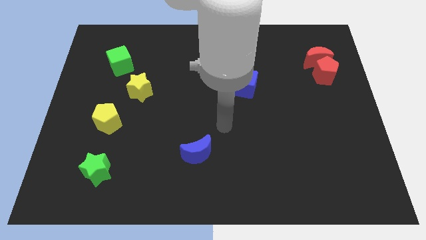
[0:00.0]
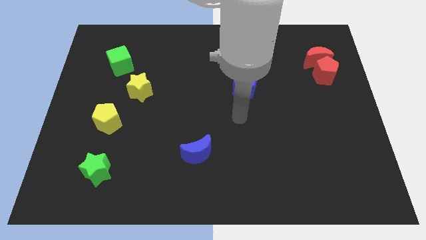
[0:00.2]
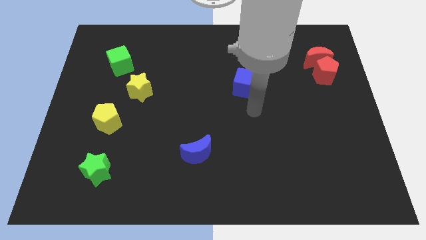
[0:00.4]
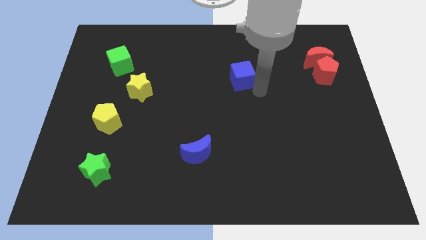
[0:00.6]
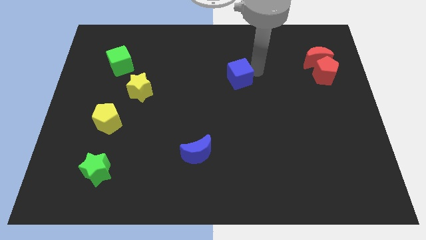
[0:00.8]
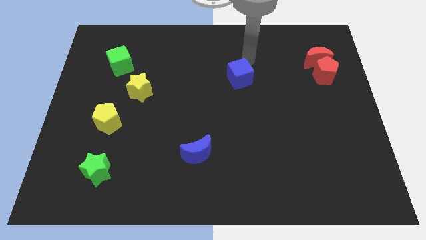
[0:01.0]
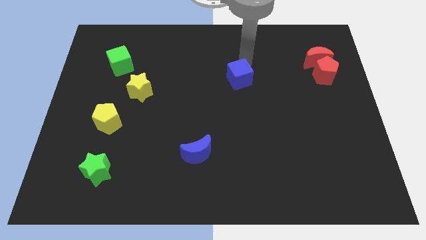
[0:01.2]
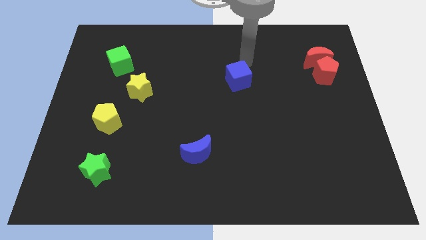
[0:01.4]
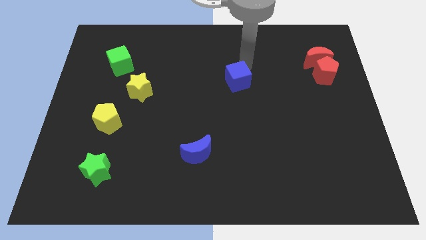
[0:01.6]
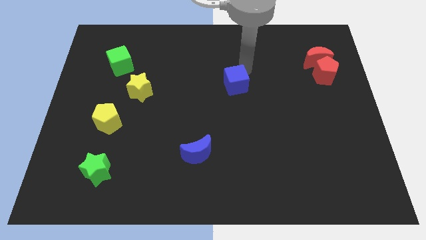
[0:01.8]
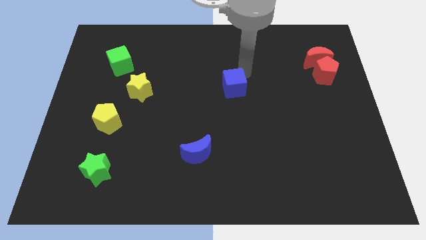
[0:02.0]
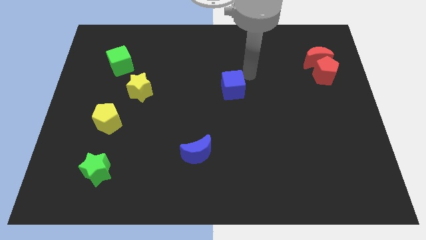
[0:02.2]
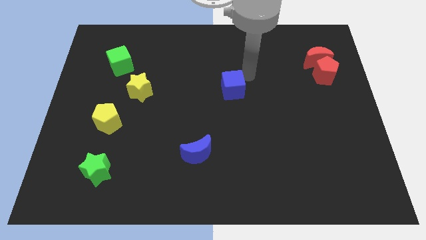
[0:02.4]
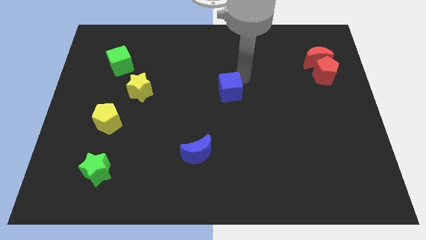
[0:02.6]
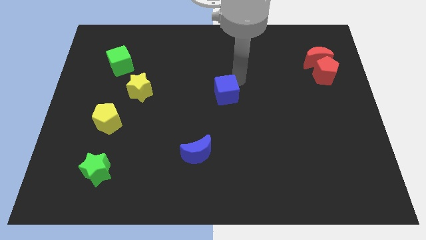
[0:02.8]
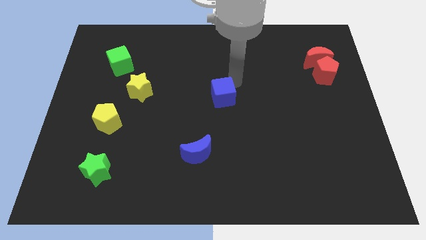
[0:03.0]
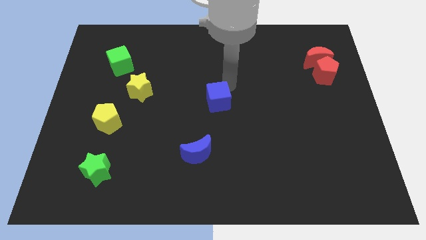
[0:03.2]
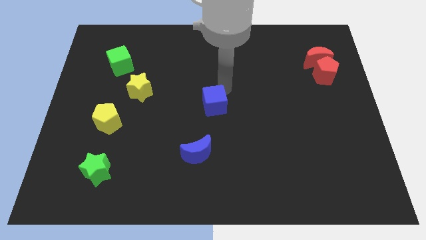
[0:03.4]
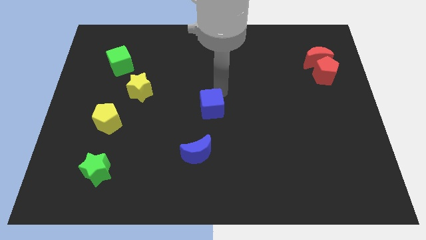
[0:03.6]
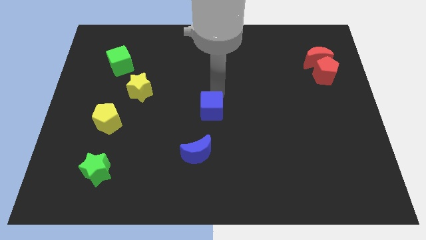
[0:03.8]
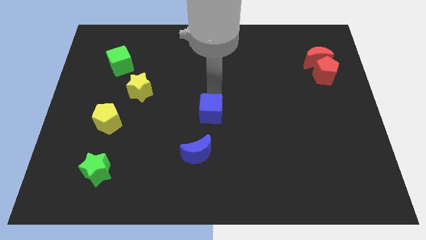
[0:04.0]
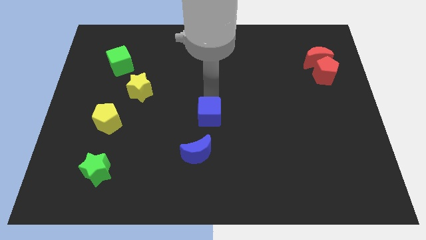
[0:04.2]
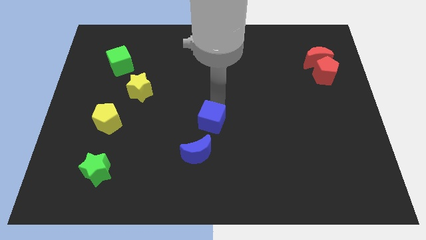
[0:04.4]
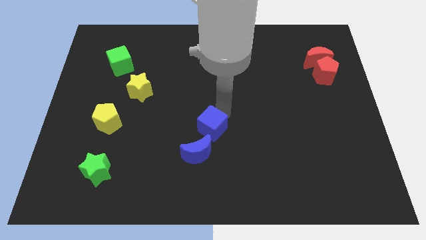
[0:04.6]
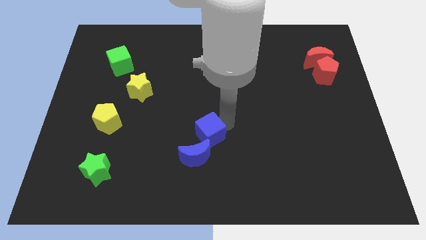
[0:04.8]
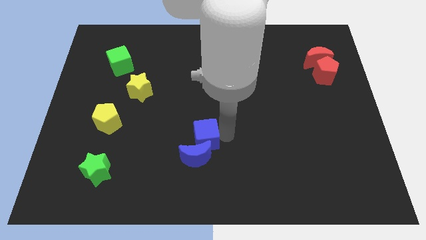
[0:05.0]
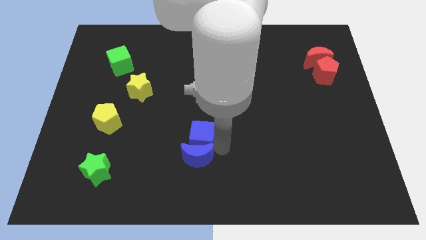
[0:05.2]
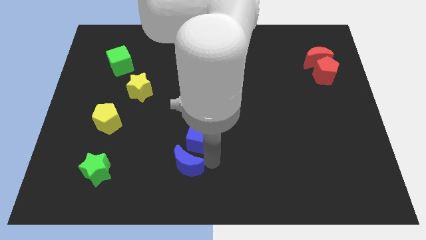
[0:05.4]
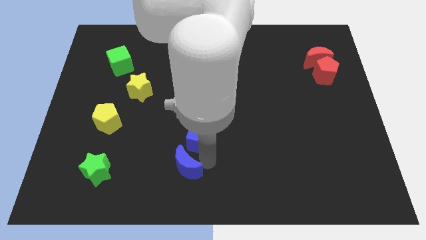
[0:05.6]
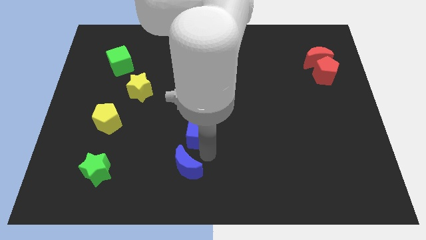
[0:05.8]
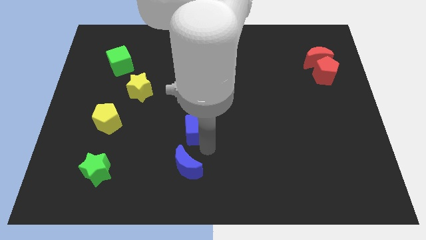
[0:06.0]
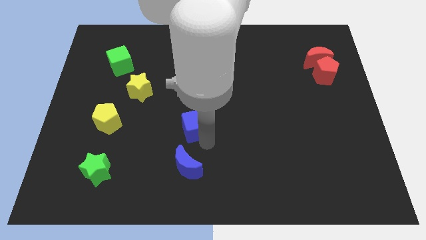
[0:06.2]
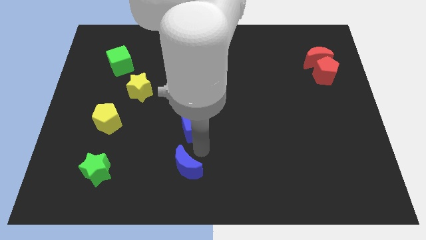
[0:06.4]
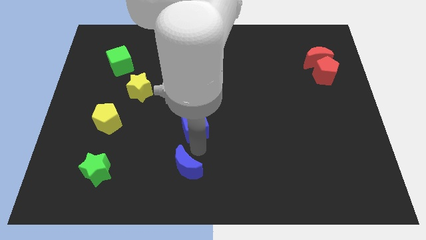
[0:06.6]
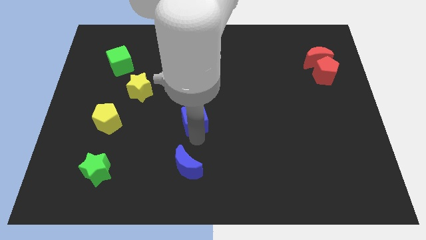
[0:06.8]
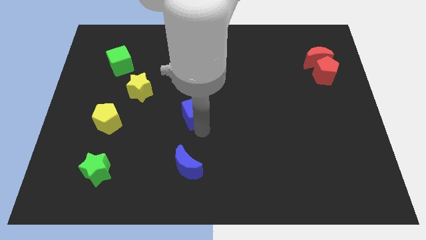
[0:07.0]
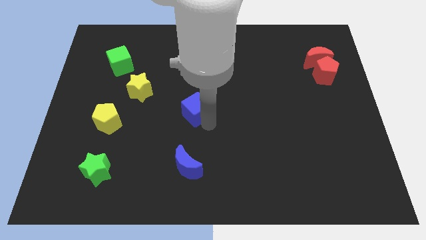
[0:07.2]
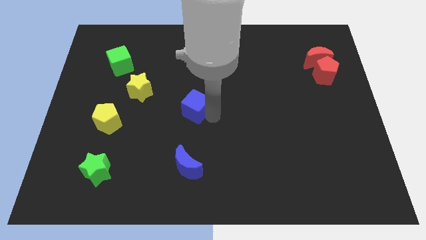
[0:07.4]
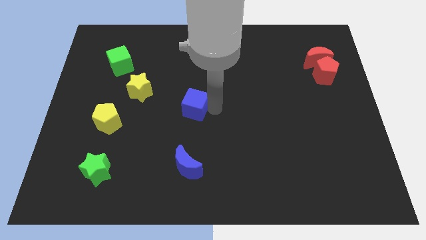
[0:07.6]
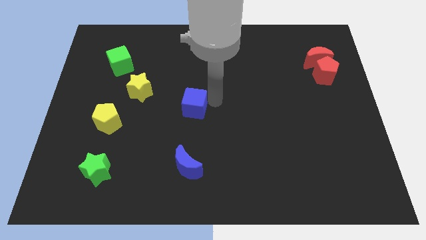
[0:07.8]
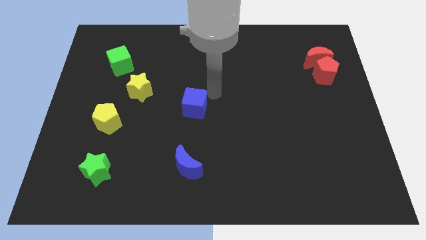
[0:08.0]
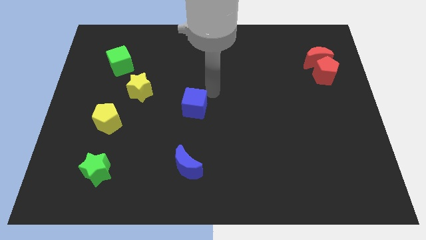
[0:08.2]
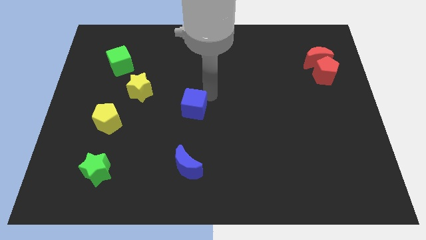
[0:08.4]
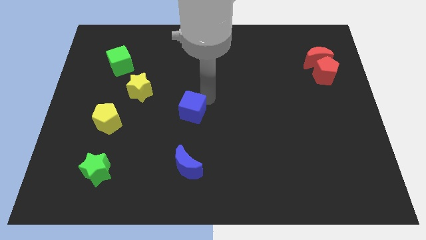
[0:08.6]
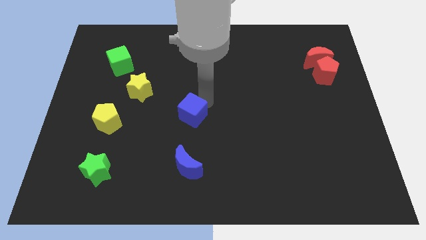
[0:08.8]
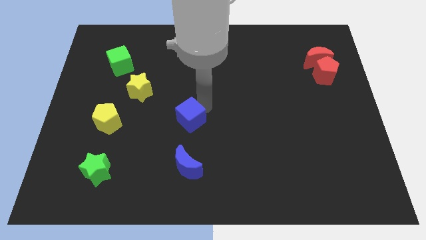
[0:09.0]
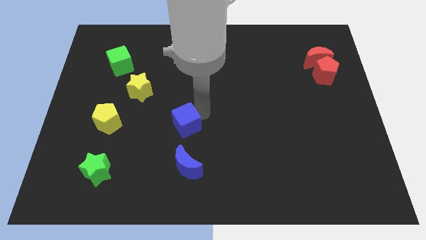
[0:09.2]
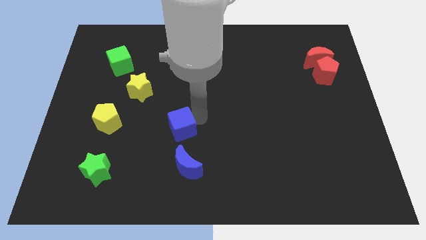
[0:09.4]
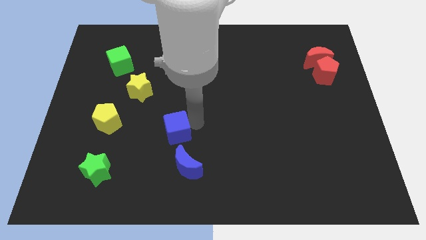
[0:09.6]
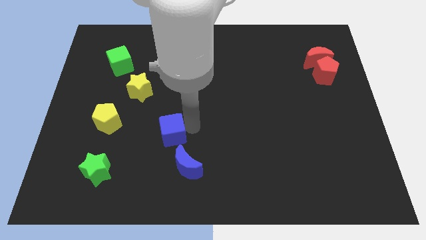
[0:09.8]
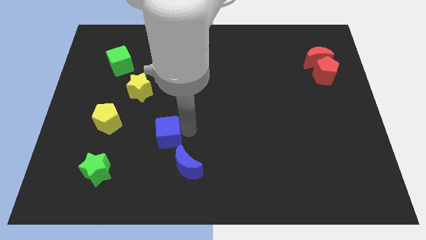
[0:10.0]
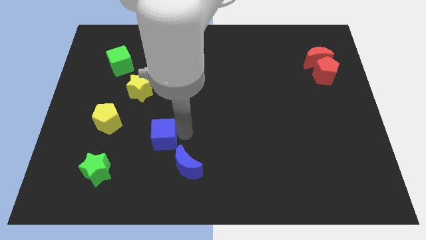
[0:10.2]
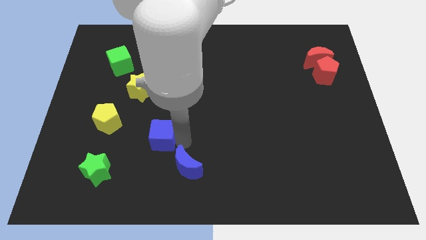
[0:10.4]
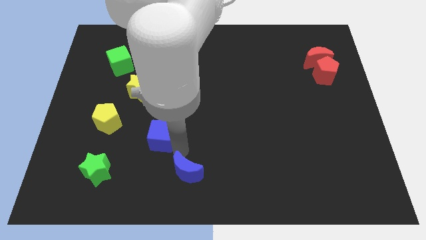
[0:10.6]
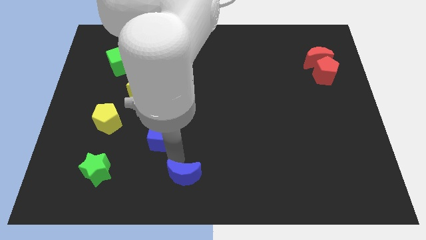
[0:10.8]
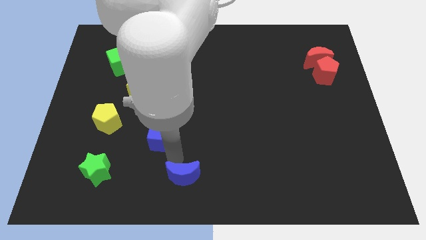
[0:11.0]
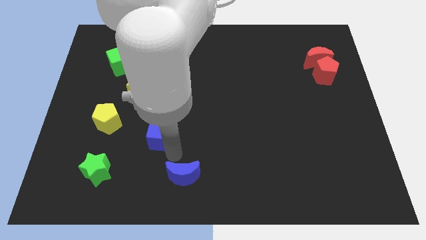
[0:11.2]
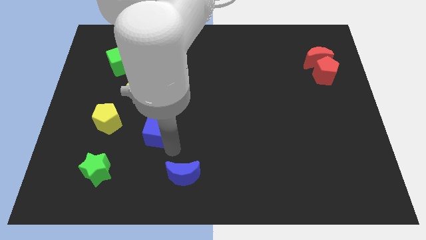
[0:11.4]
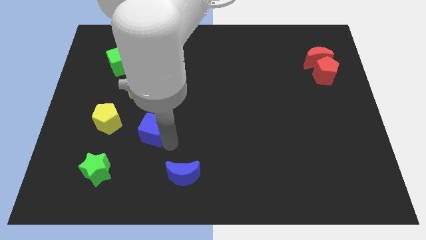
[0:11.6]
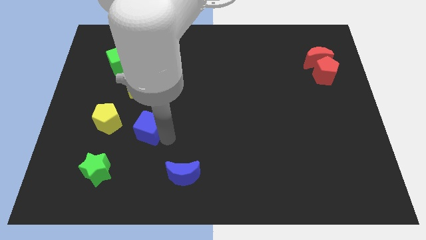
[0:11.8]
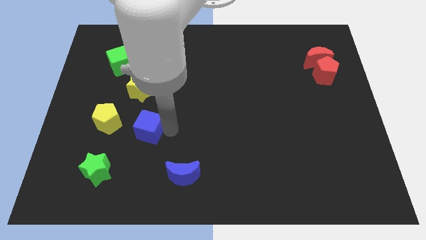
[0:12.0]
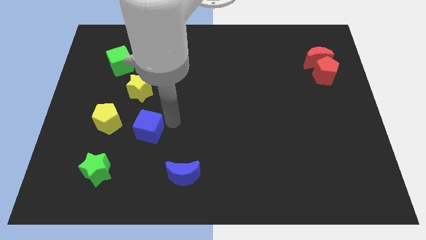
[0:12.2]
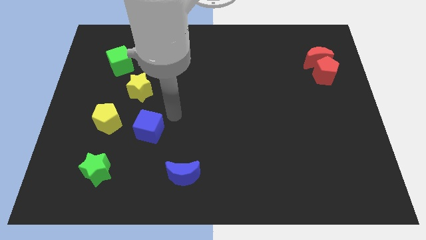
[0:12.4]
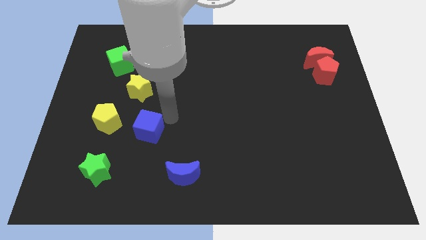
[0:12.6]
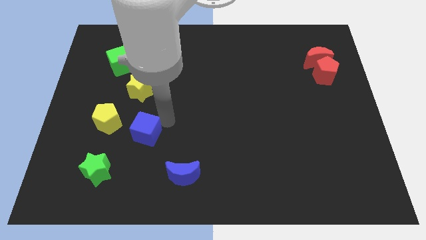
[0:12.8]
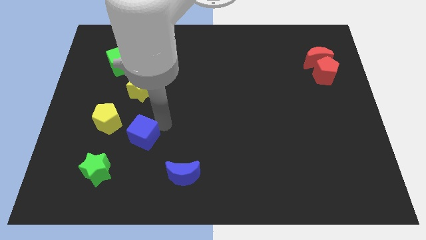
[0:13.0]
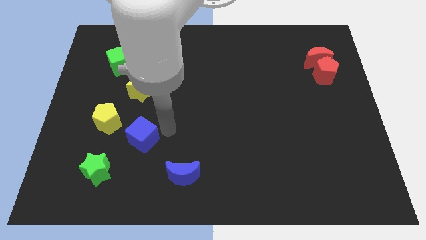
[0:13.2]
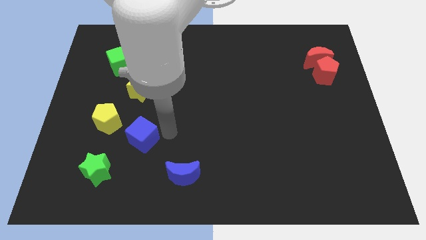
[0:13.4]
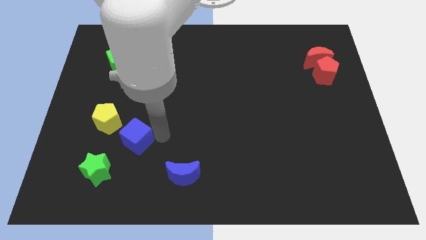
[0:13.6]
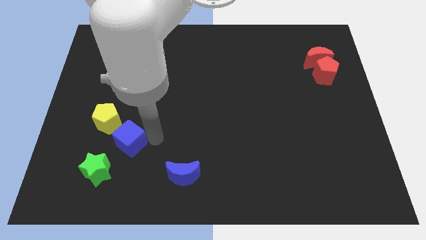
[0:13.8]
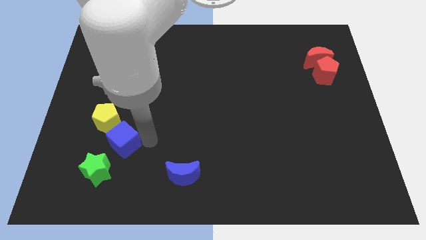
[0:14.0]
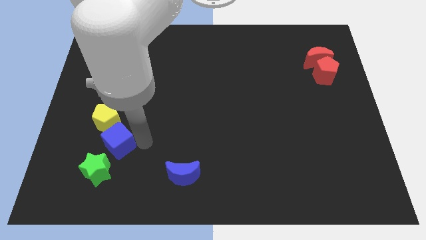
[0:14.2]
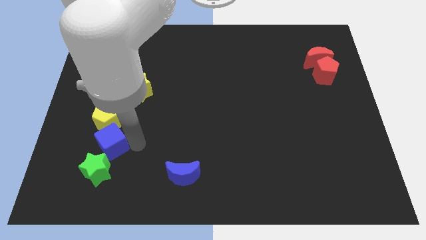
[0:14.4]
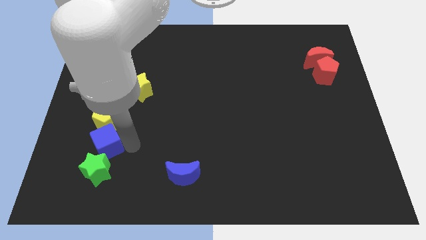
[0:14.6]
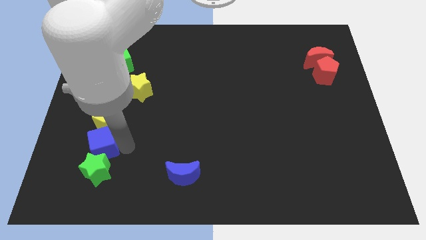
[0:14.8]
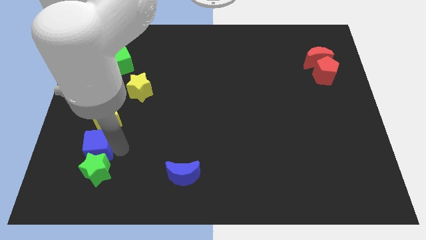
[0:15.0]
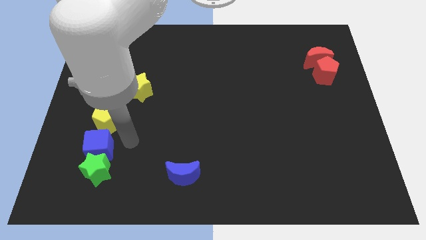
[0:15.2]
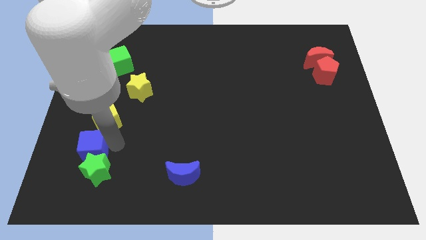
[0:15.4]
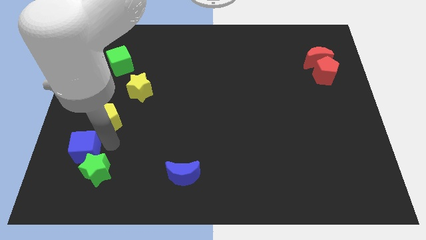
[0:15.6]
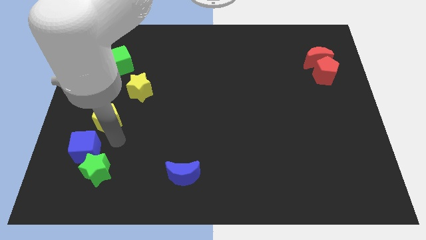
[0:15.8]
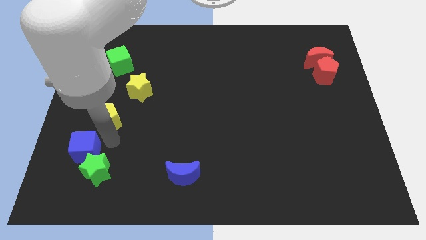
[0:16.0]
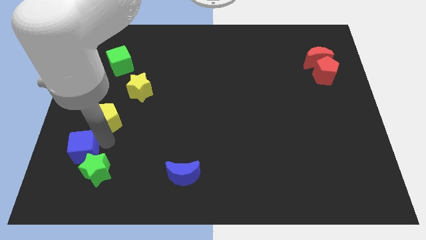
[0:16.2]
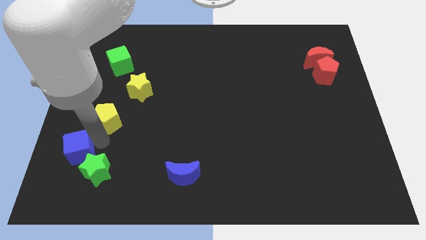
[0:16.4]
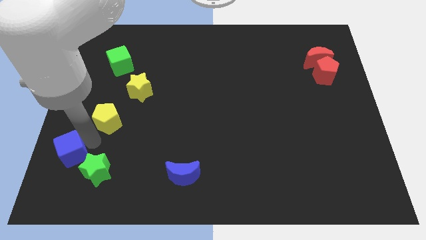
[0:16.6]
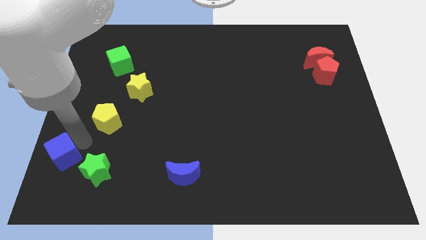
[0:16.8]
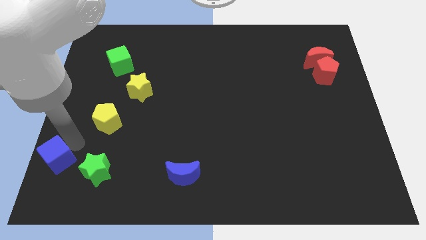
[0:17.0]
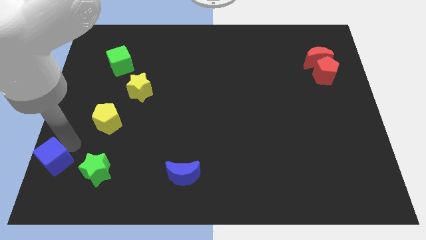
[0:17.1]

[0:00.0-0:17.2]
push the blue cube to the lower left corner
